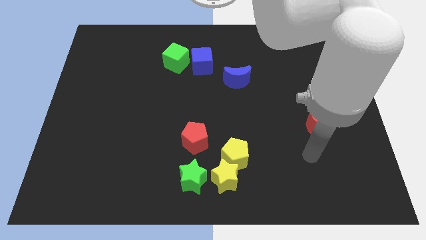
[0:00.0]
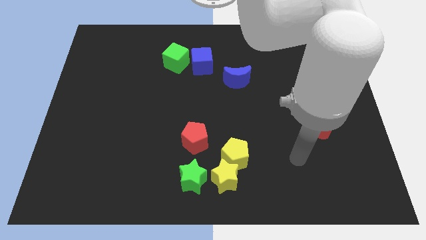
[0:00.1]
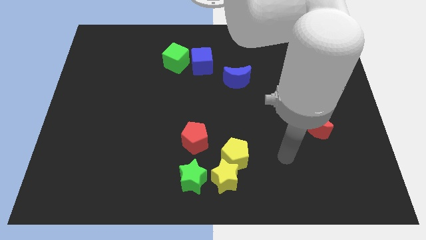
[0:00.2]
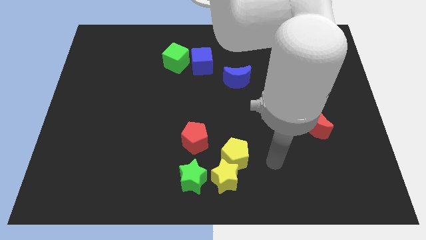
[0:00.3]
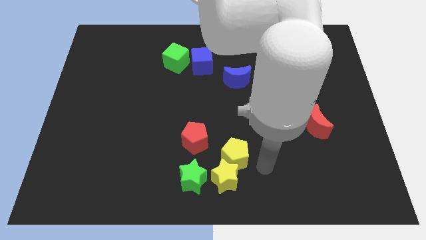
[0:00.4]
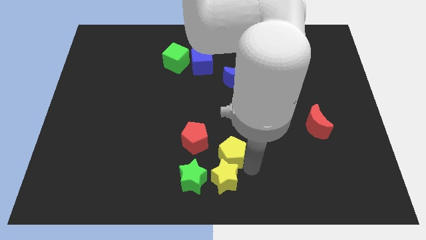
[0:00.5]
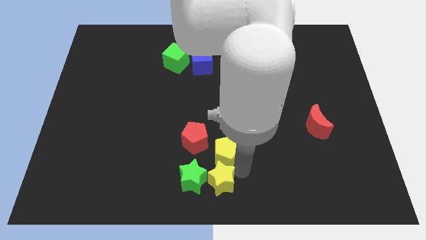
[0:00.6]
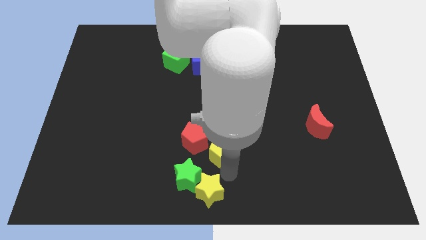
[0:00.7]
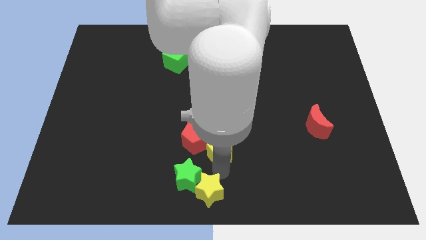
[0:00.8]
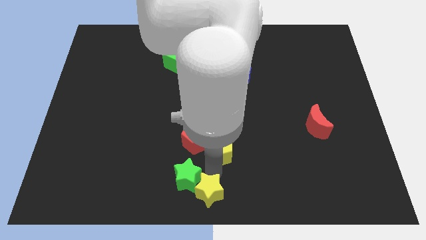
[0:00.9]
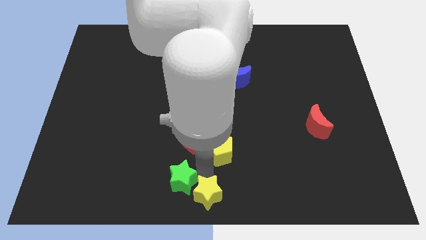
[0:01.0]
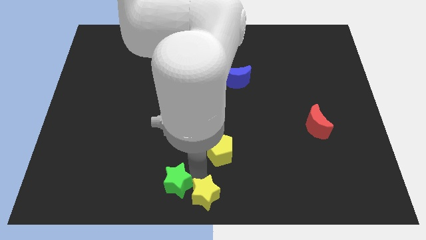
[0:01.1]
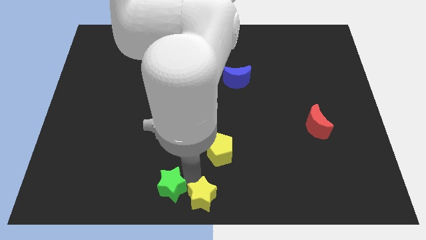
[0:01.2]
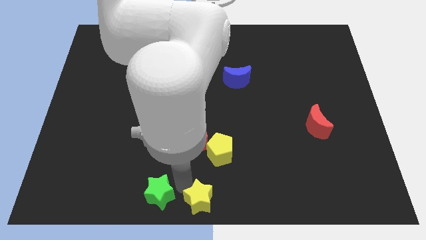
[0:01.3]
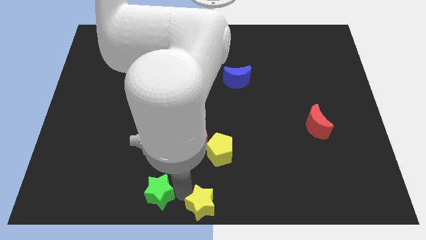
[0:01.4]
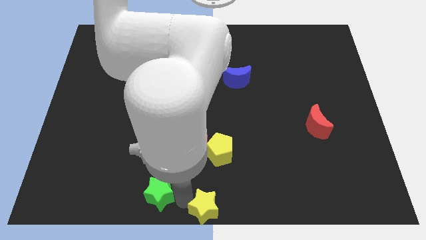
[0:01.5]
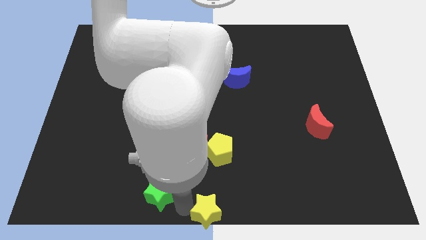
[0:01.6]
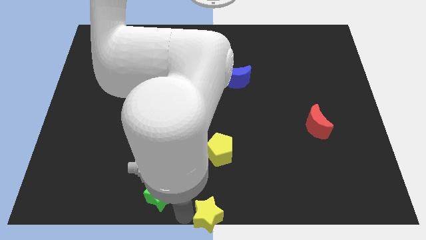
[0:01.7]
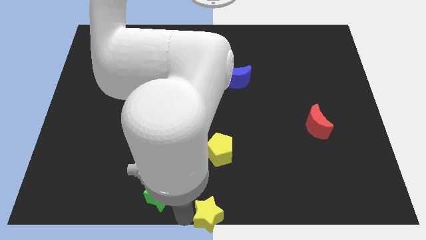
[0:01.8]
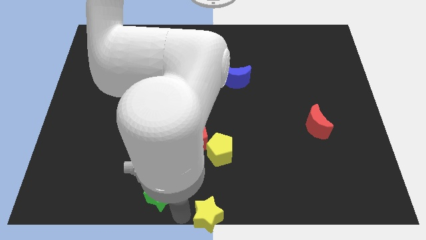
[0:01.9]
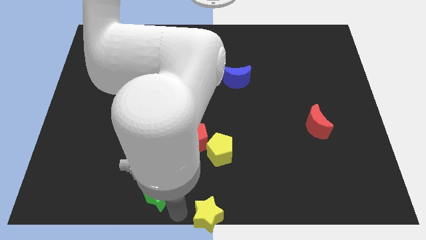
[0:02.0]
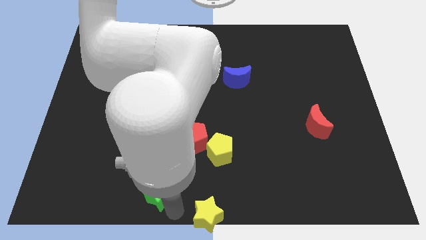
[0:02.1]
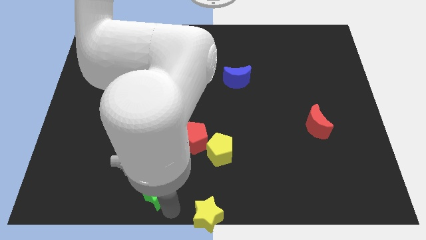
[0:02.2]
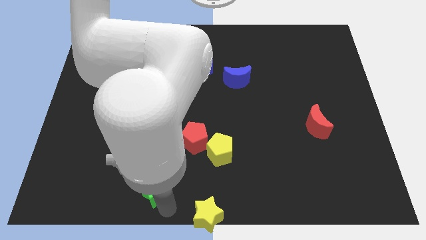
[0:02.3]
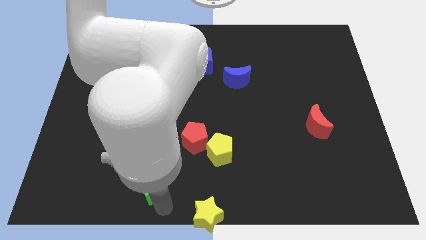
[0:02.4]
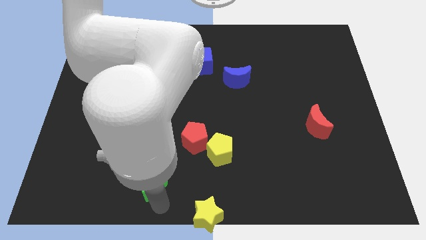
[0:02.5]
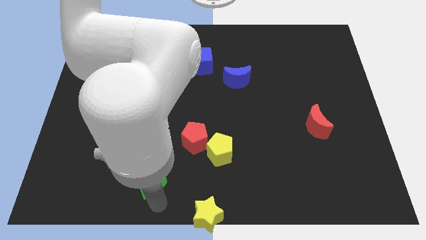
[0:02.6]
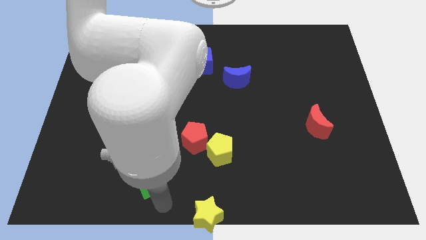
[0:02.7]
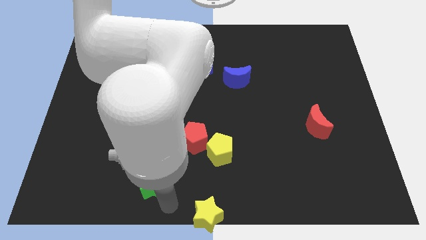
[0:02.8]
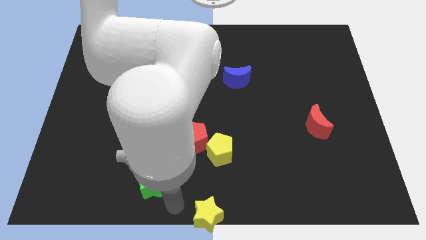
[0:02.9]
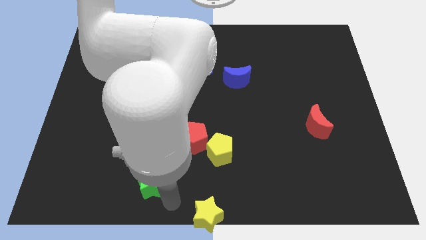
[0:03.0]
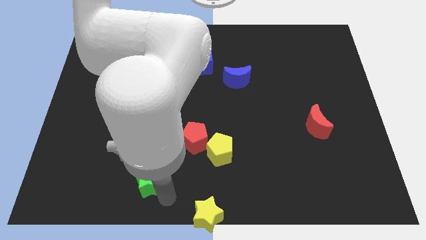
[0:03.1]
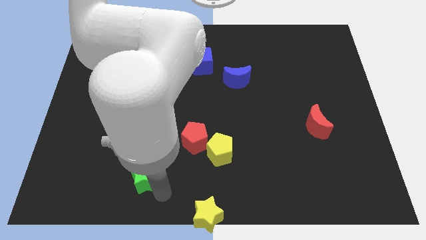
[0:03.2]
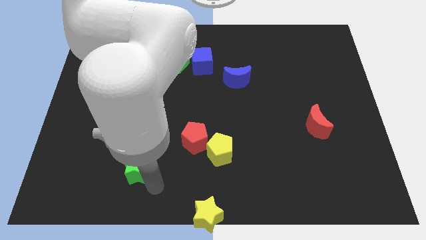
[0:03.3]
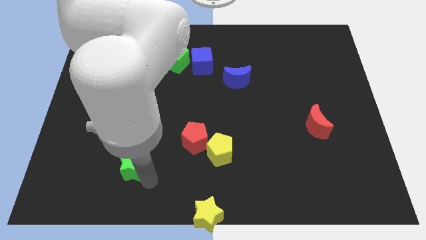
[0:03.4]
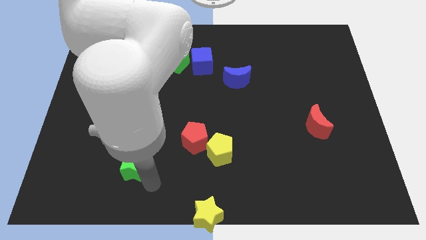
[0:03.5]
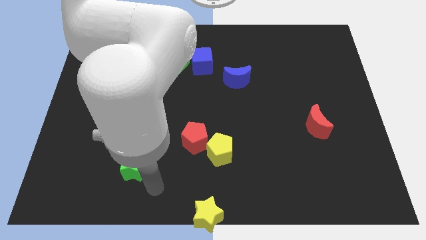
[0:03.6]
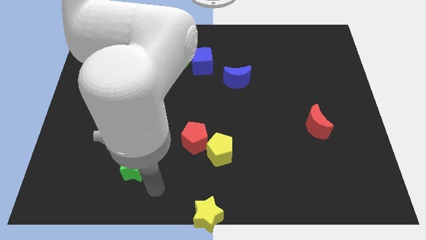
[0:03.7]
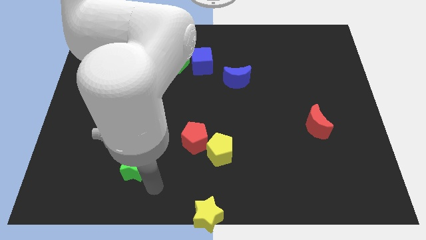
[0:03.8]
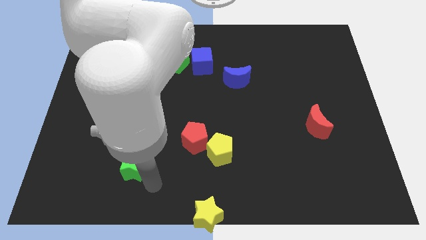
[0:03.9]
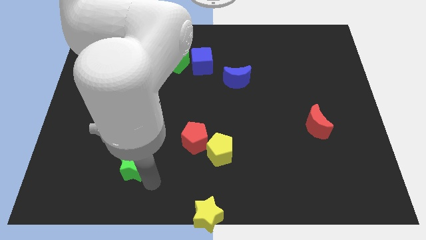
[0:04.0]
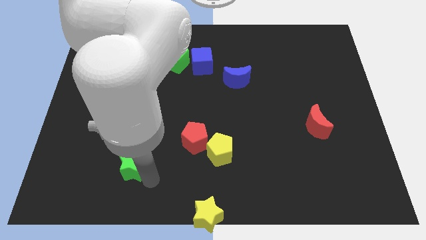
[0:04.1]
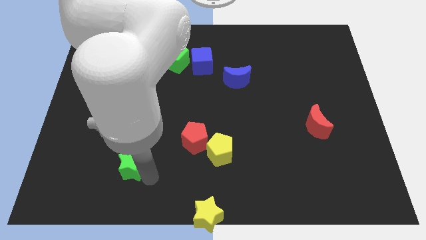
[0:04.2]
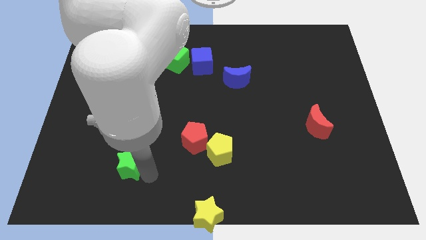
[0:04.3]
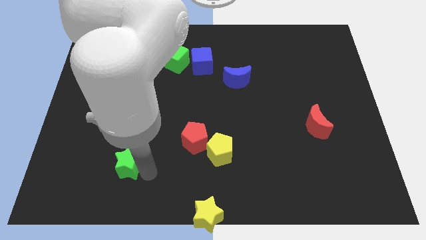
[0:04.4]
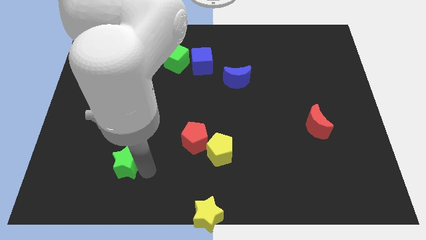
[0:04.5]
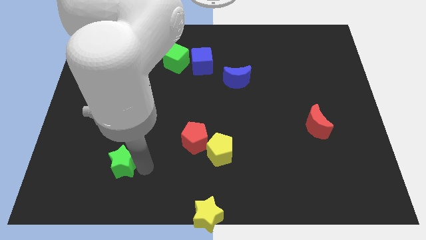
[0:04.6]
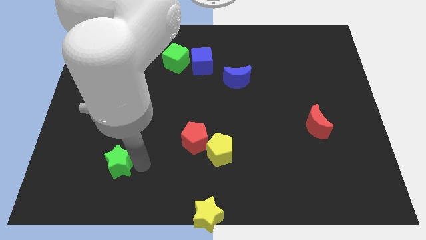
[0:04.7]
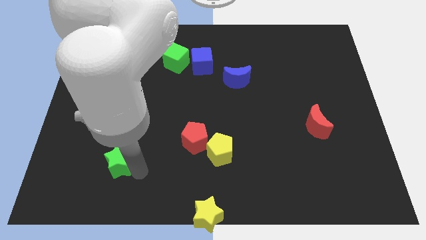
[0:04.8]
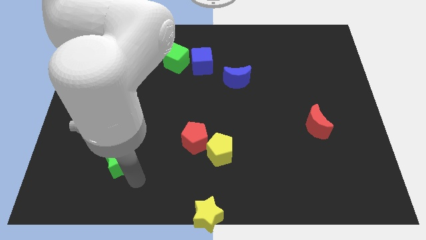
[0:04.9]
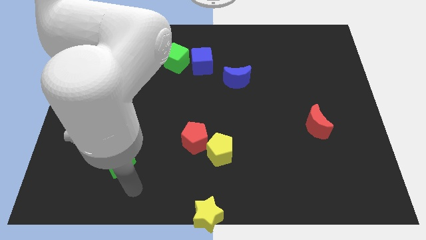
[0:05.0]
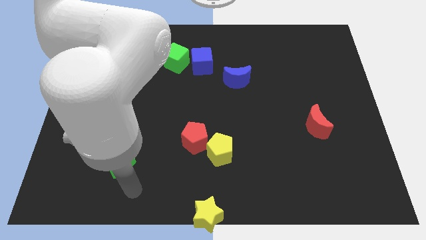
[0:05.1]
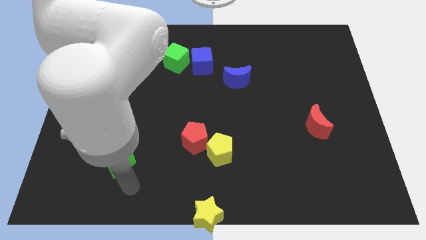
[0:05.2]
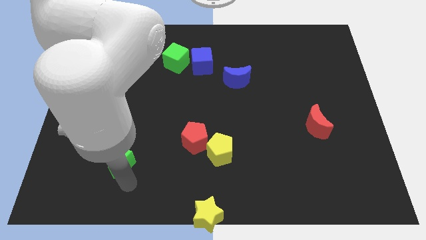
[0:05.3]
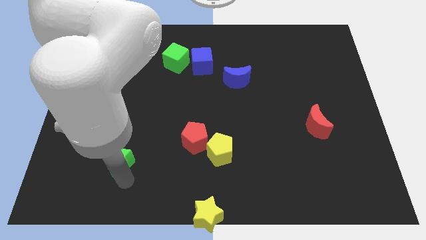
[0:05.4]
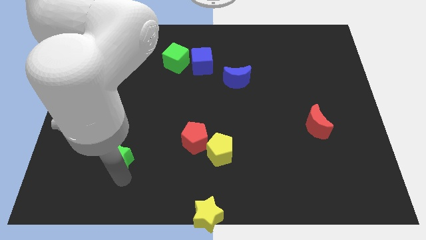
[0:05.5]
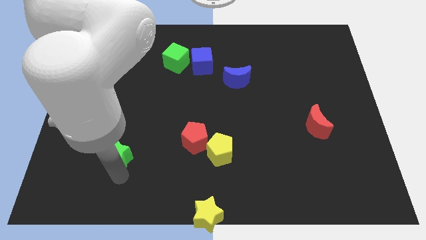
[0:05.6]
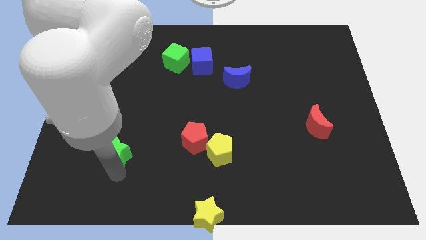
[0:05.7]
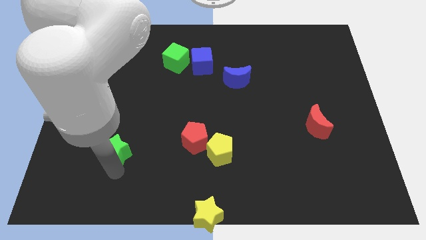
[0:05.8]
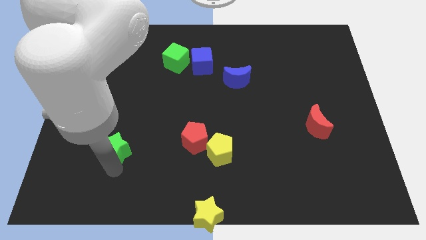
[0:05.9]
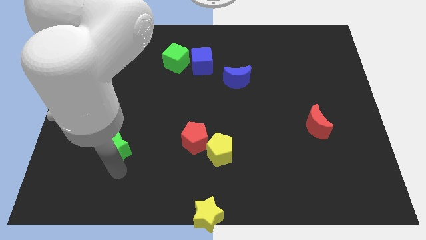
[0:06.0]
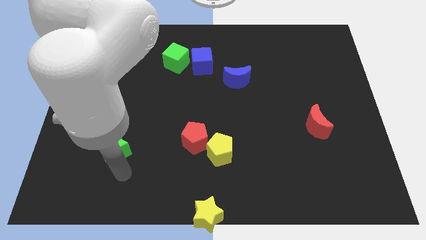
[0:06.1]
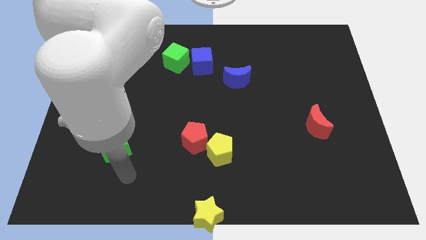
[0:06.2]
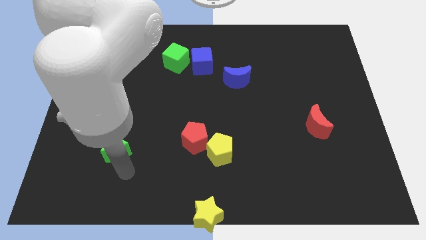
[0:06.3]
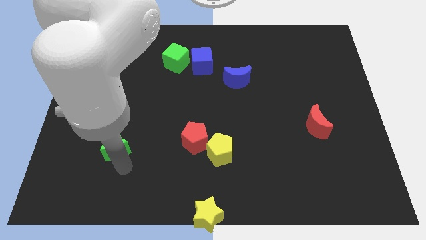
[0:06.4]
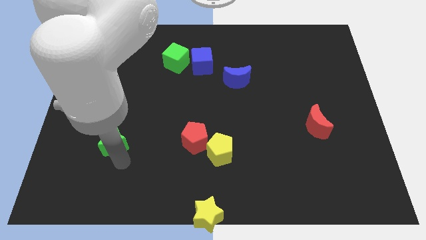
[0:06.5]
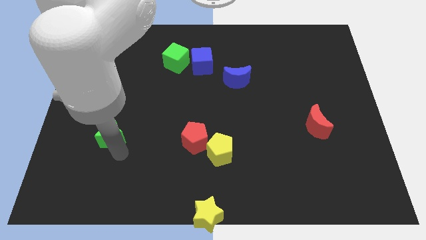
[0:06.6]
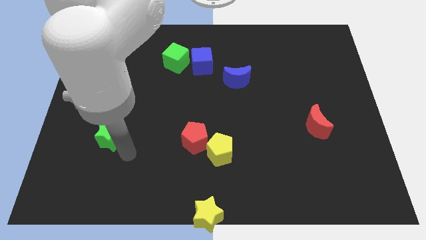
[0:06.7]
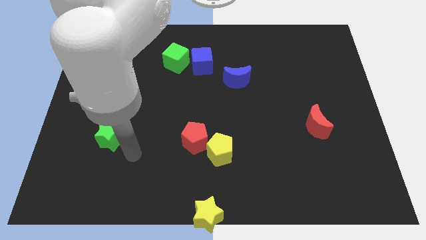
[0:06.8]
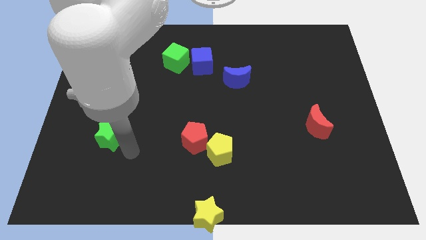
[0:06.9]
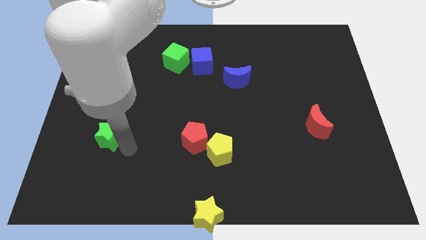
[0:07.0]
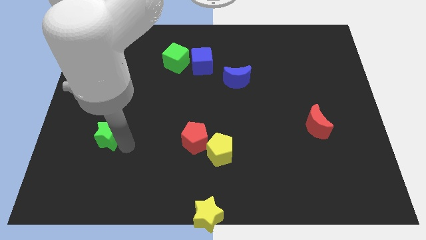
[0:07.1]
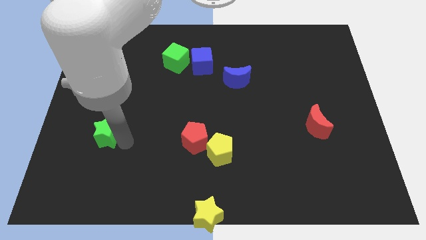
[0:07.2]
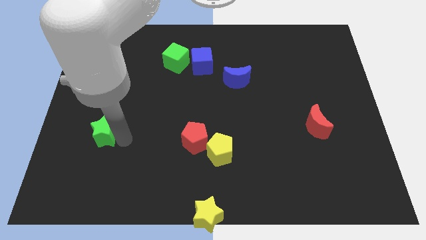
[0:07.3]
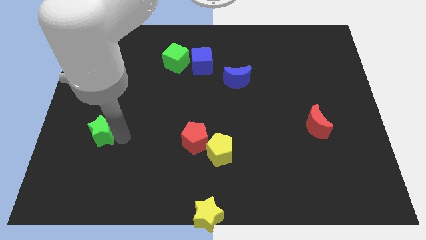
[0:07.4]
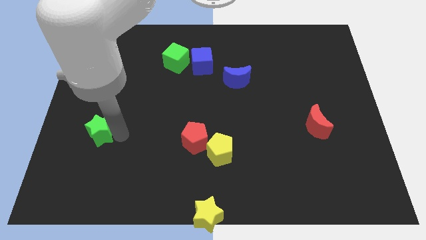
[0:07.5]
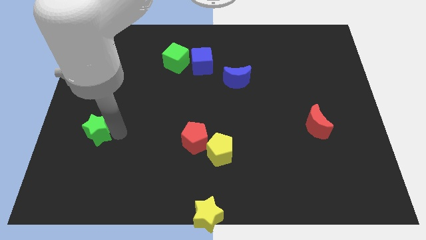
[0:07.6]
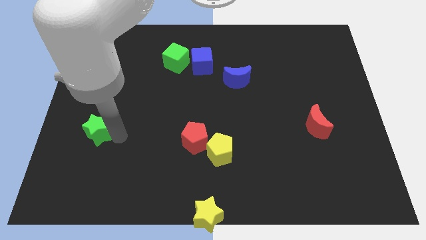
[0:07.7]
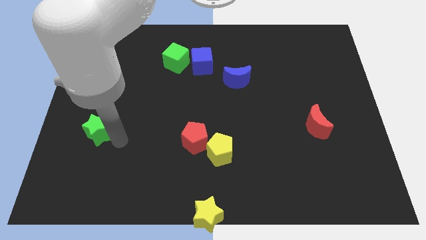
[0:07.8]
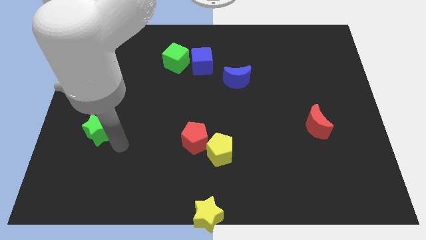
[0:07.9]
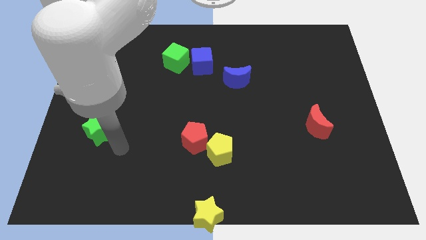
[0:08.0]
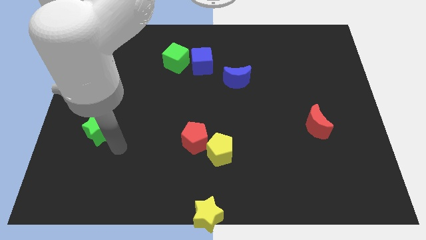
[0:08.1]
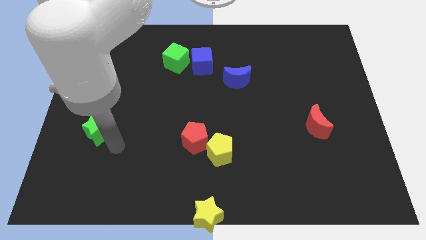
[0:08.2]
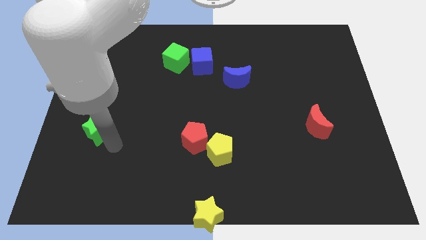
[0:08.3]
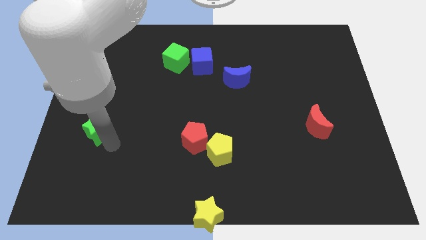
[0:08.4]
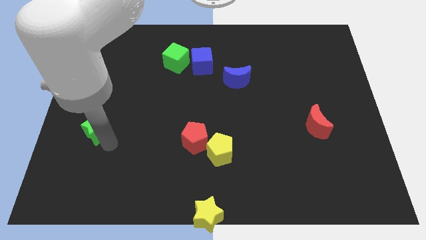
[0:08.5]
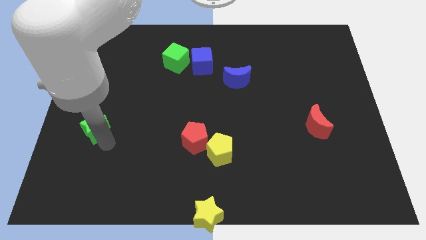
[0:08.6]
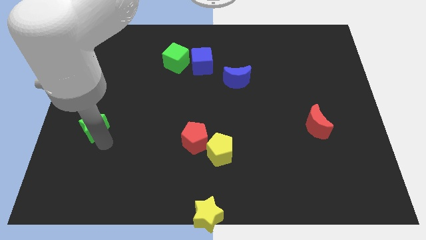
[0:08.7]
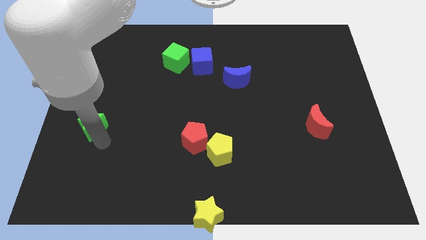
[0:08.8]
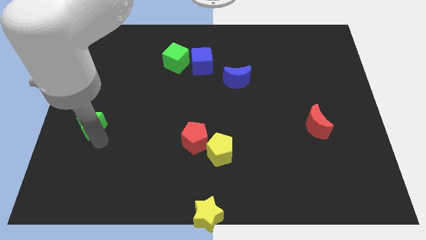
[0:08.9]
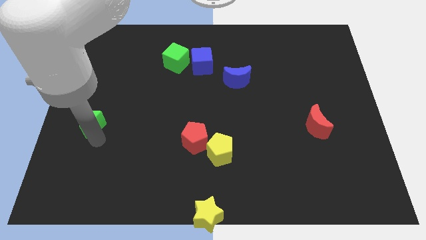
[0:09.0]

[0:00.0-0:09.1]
slide the green star to the left side of the board
